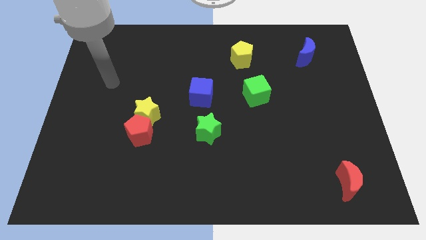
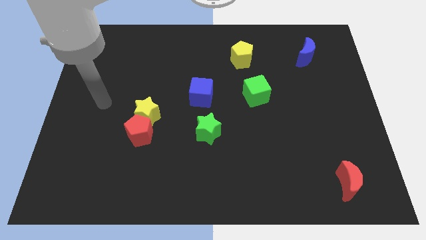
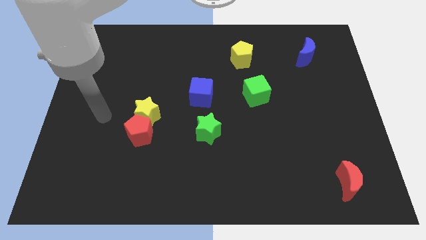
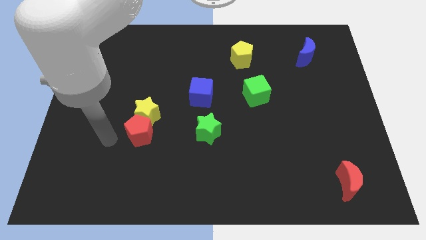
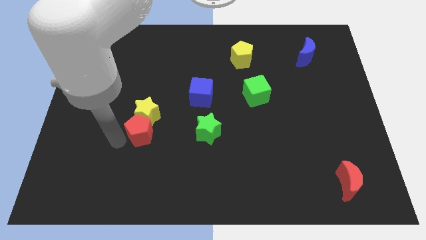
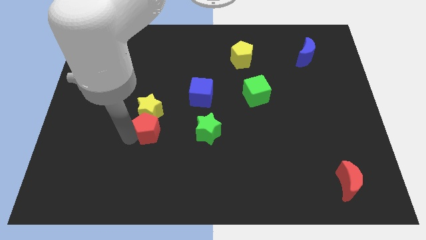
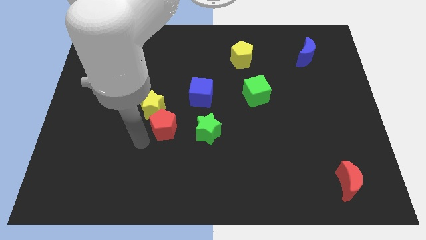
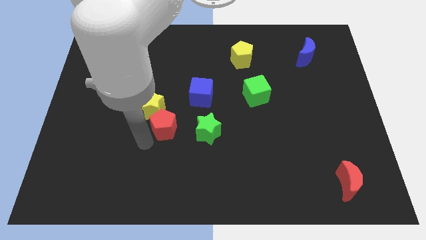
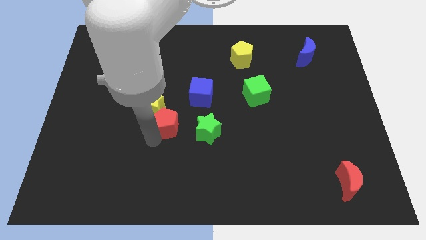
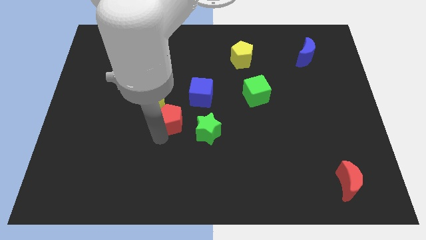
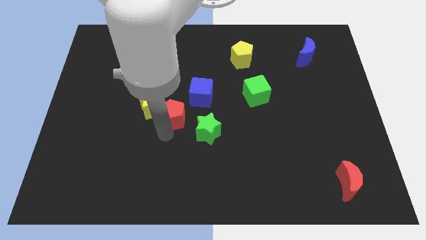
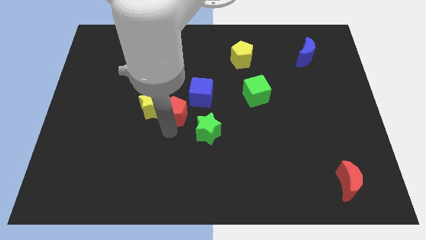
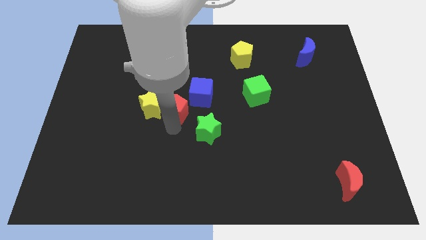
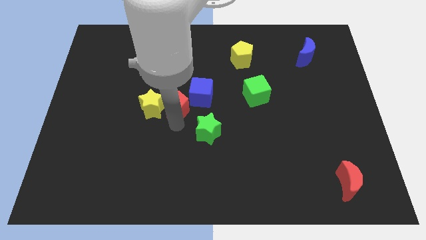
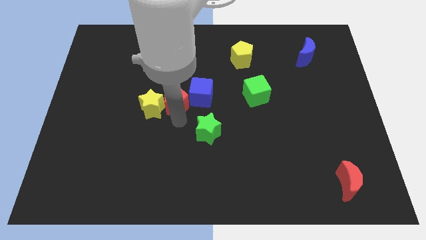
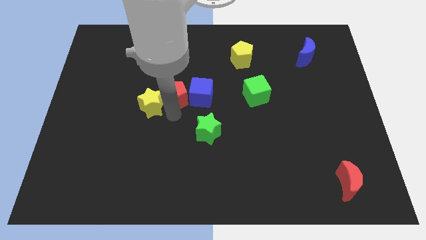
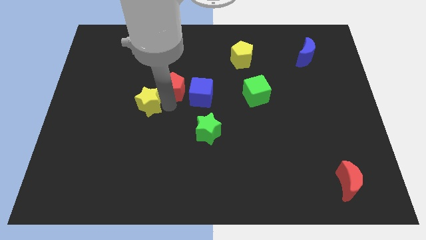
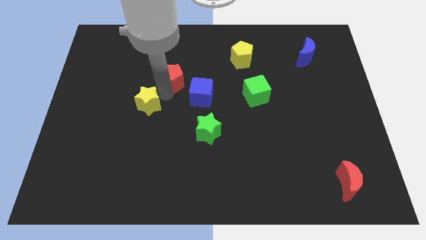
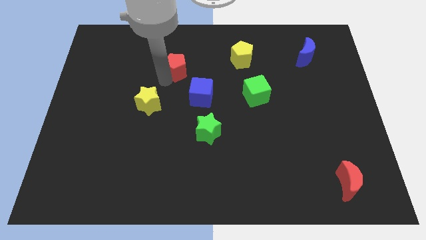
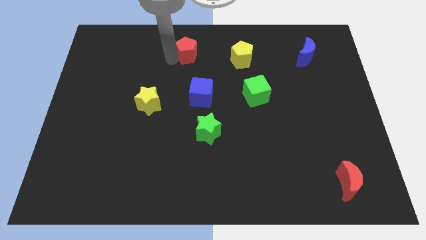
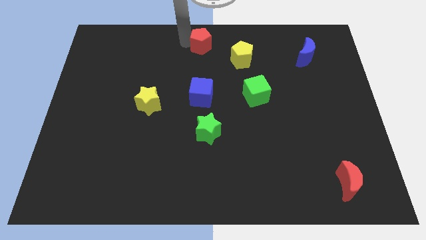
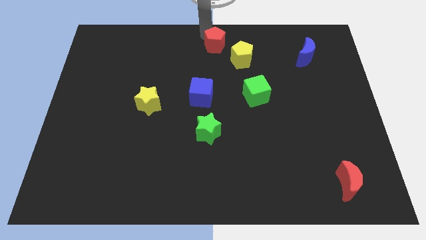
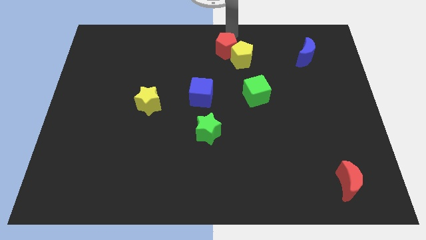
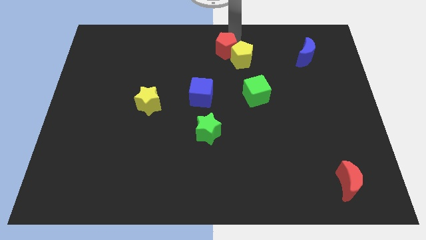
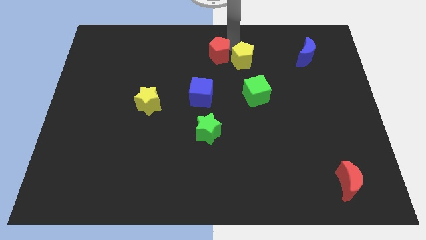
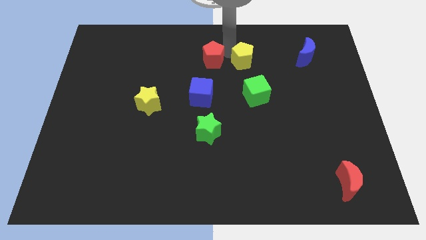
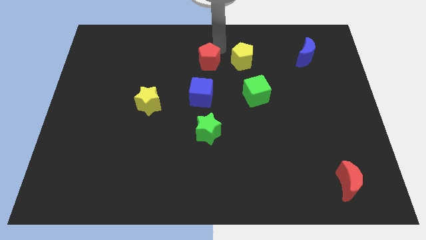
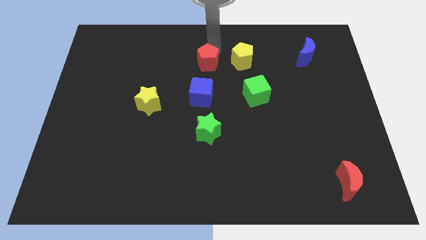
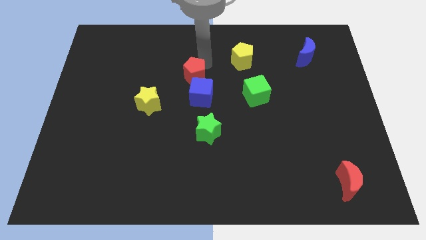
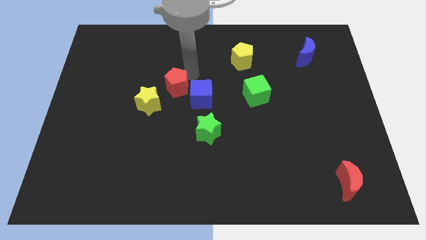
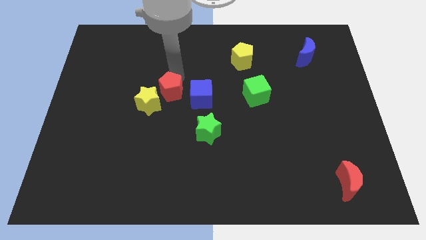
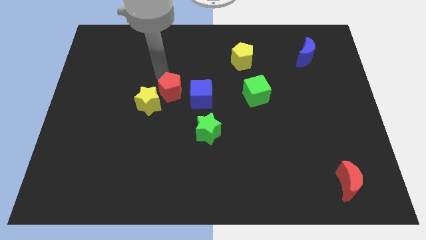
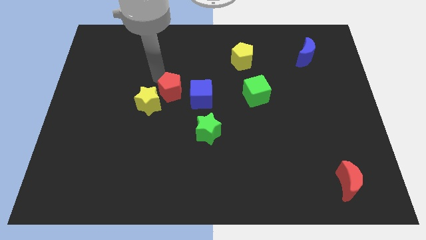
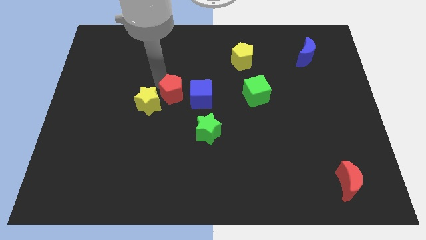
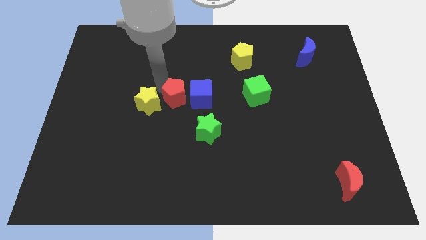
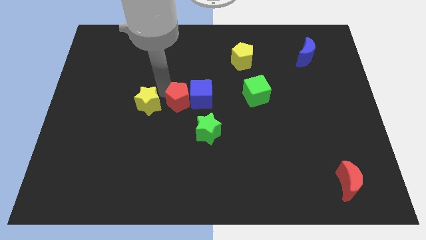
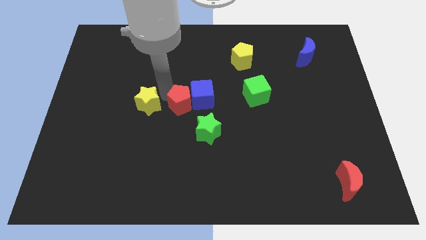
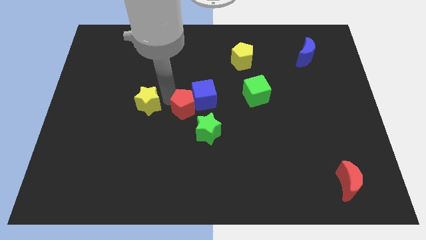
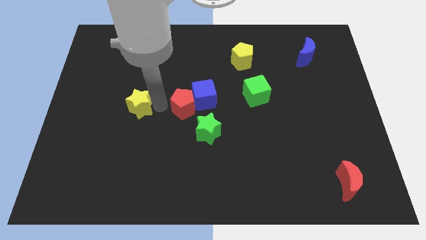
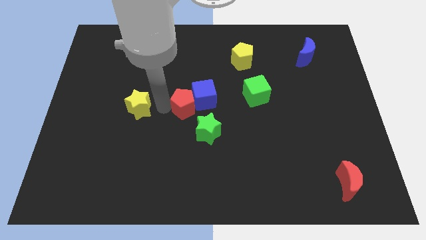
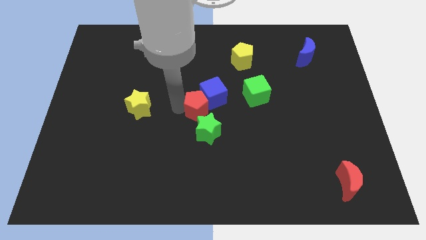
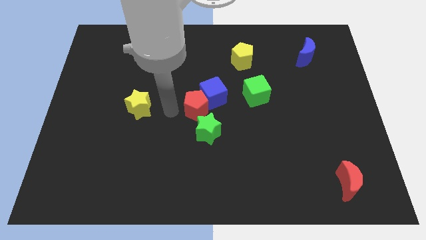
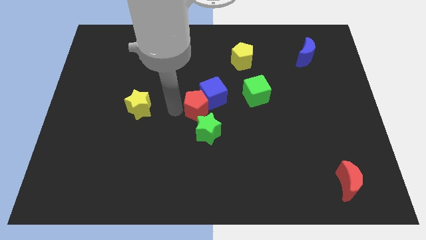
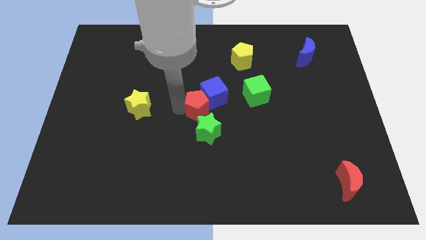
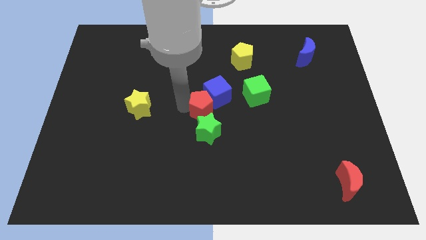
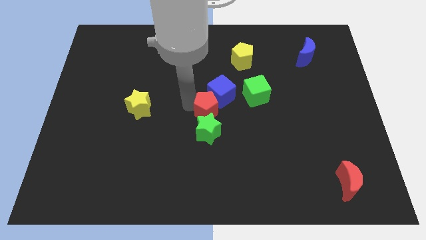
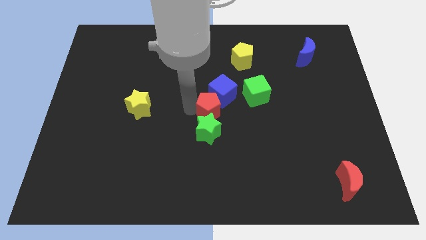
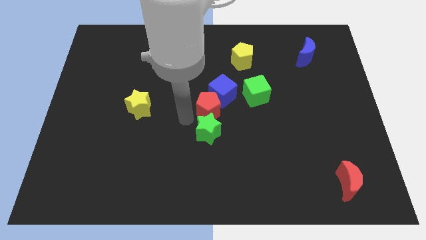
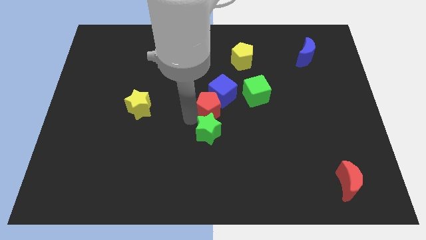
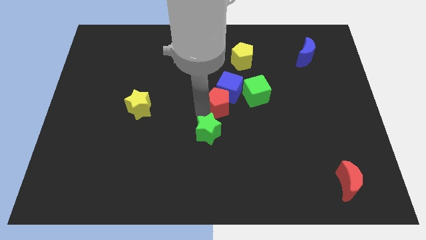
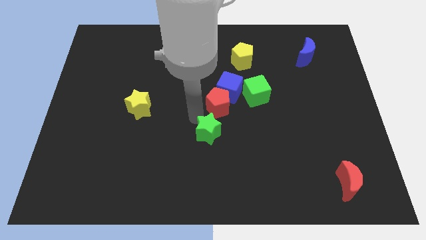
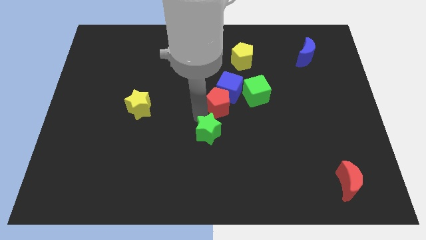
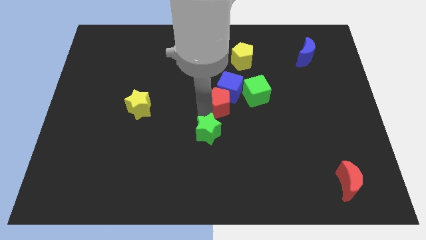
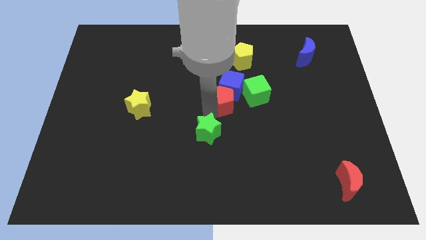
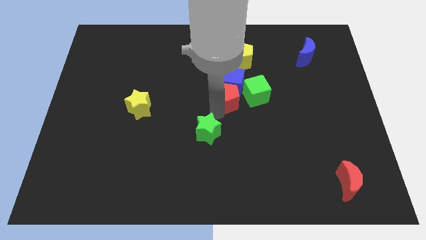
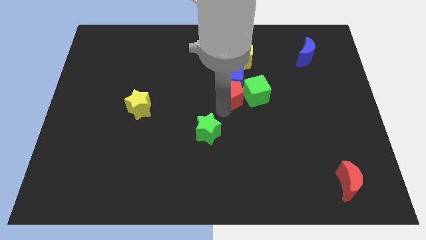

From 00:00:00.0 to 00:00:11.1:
move the red pentagon close to the green cube
